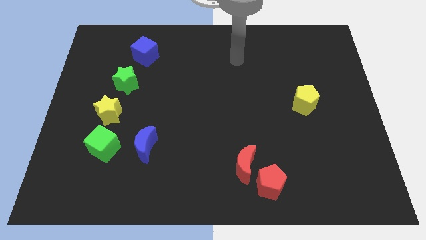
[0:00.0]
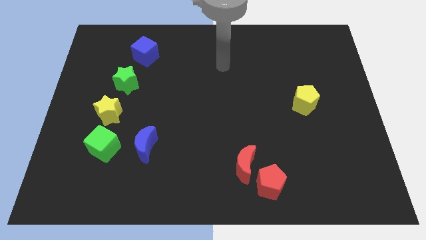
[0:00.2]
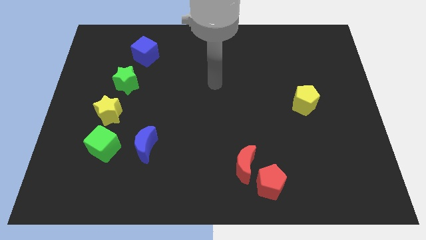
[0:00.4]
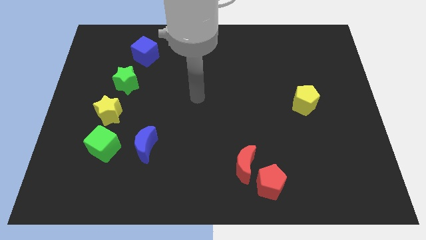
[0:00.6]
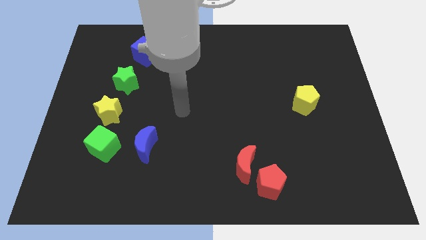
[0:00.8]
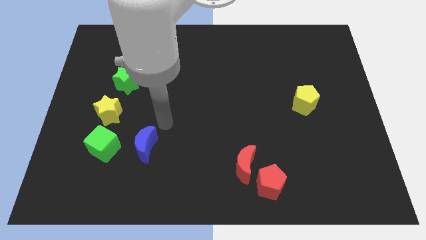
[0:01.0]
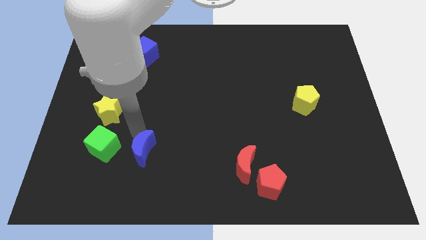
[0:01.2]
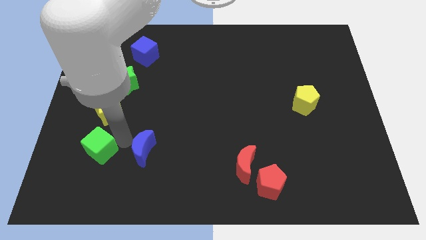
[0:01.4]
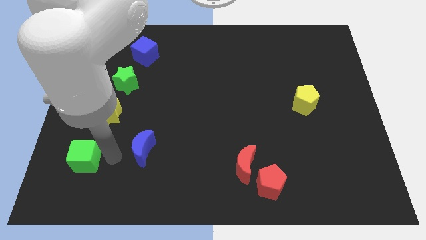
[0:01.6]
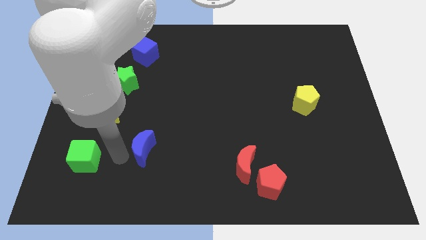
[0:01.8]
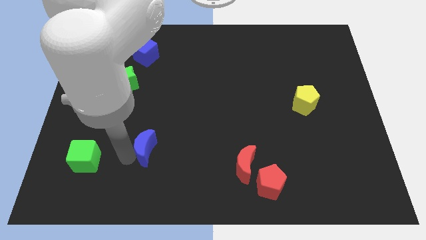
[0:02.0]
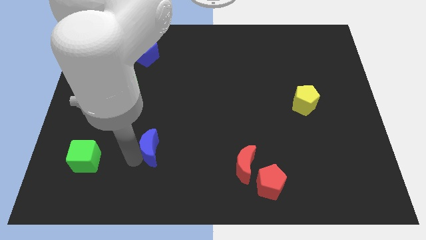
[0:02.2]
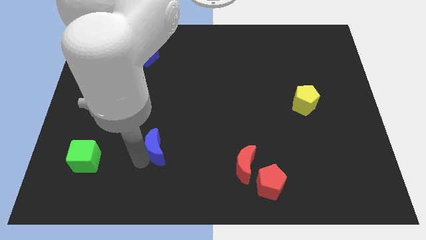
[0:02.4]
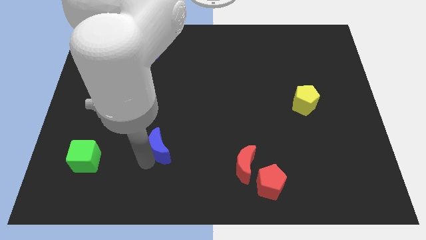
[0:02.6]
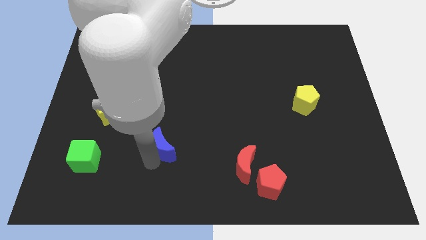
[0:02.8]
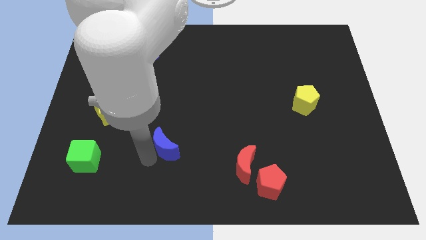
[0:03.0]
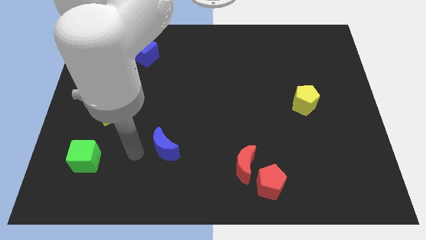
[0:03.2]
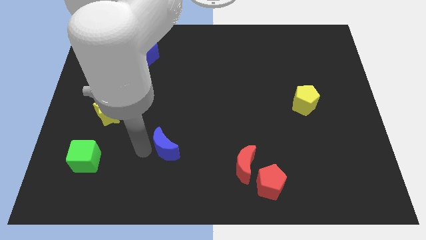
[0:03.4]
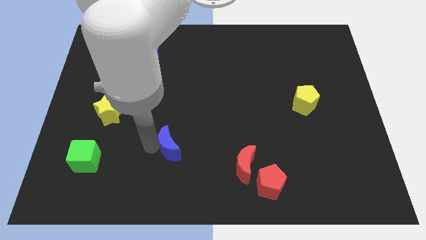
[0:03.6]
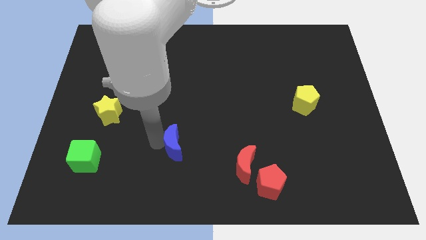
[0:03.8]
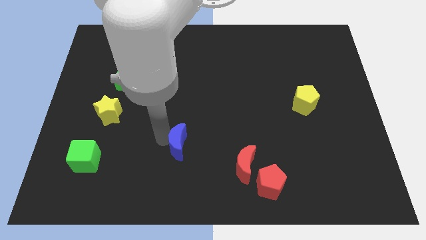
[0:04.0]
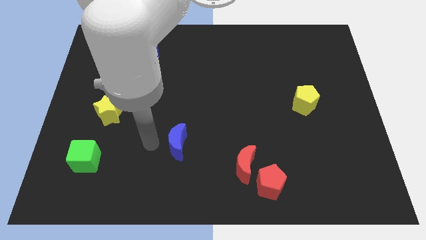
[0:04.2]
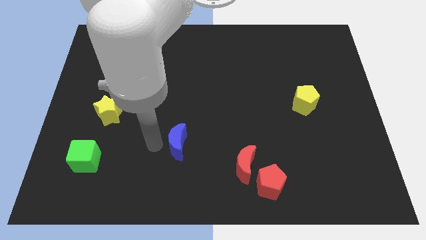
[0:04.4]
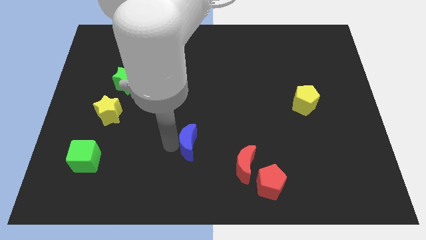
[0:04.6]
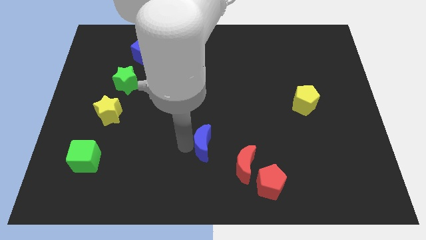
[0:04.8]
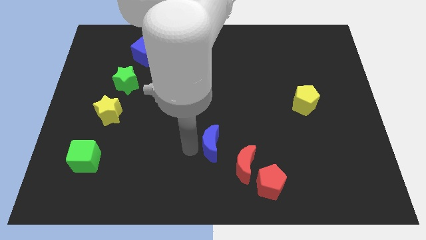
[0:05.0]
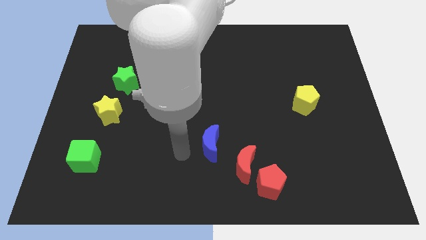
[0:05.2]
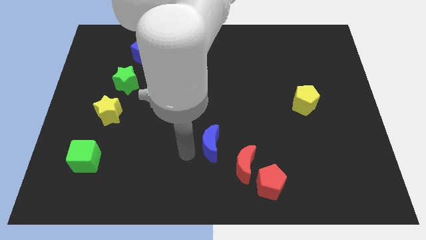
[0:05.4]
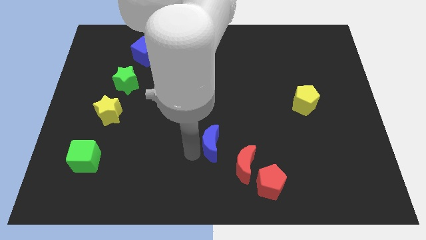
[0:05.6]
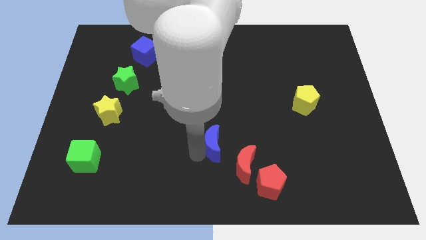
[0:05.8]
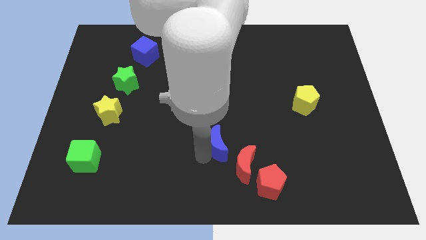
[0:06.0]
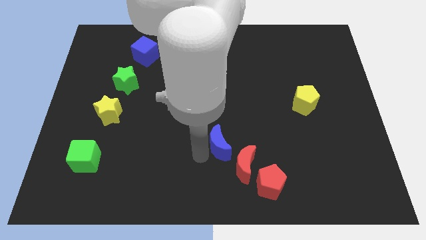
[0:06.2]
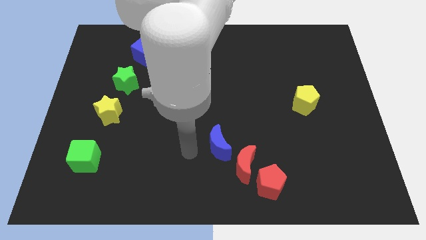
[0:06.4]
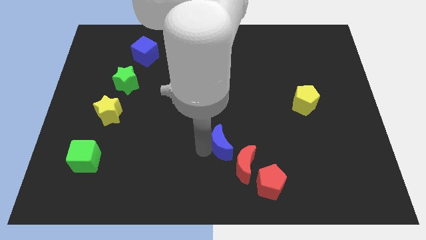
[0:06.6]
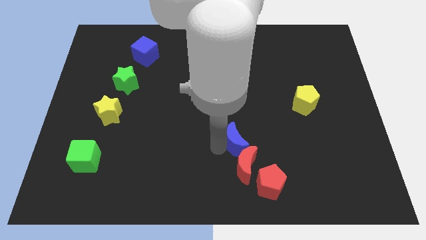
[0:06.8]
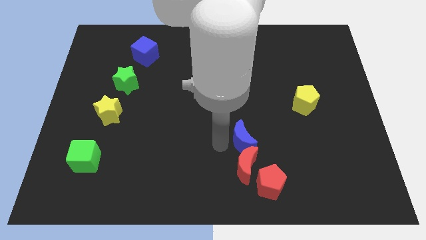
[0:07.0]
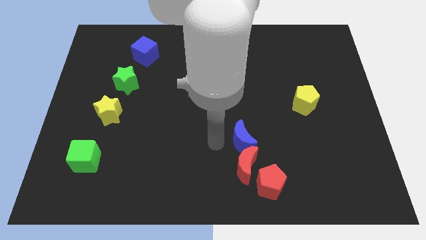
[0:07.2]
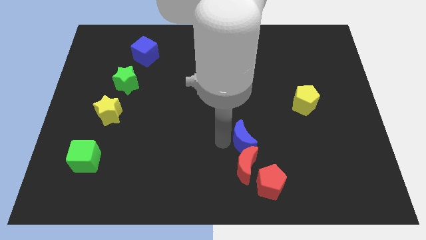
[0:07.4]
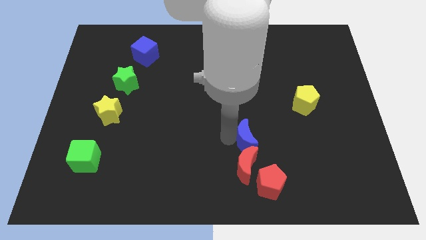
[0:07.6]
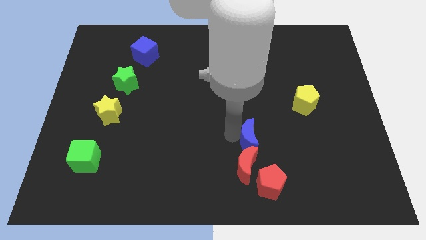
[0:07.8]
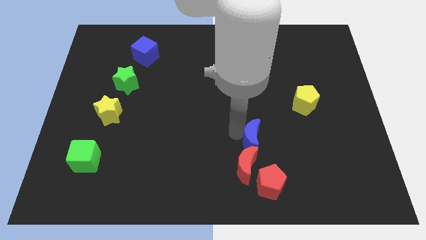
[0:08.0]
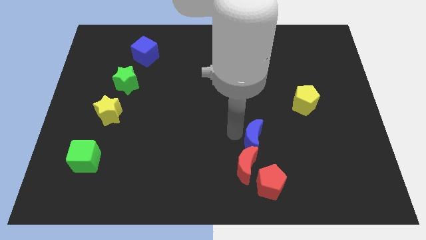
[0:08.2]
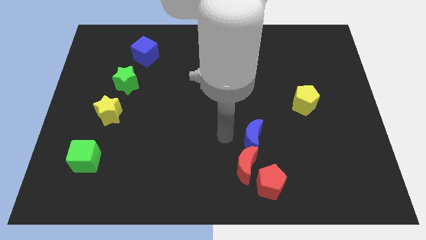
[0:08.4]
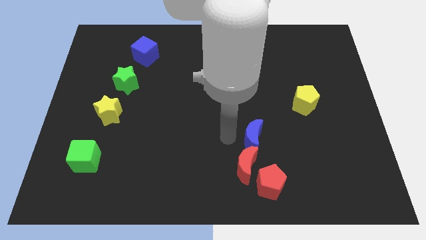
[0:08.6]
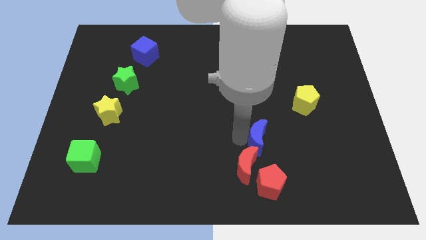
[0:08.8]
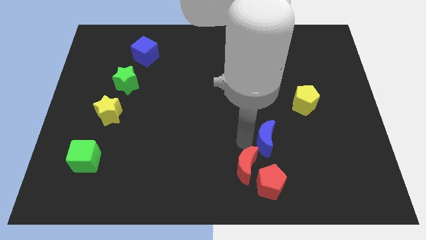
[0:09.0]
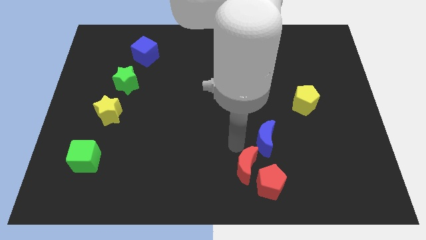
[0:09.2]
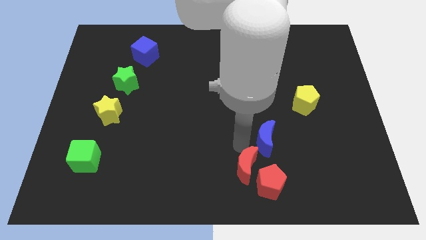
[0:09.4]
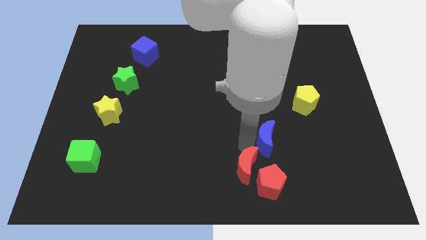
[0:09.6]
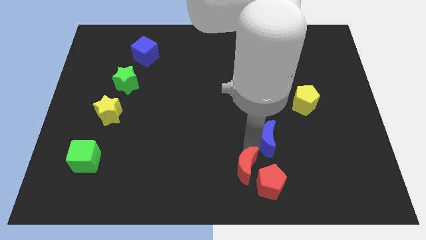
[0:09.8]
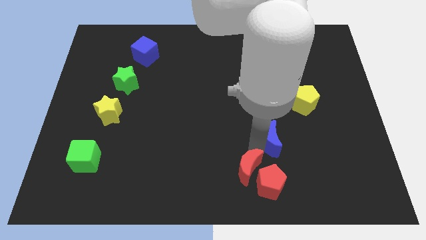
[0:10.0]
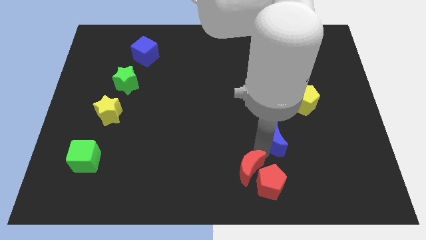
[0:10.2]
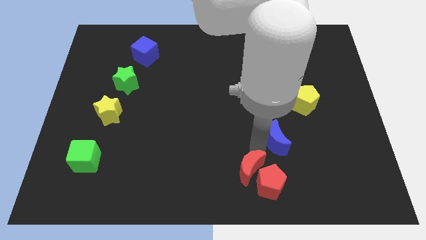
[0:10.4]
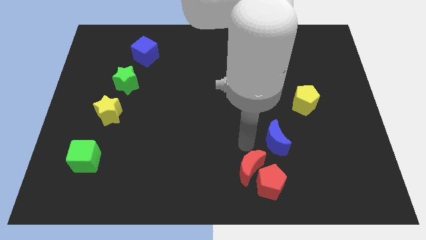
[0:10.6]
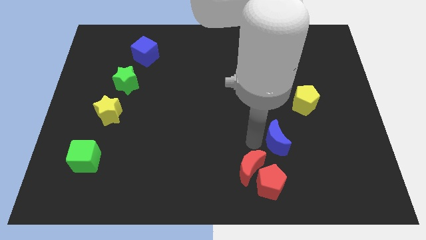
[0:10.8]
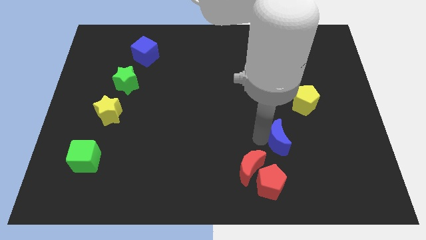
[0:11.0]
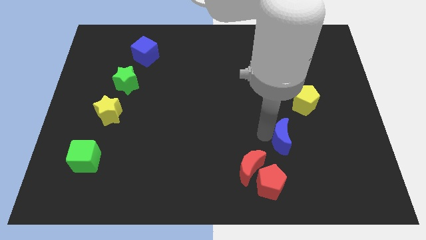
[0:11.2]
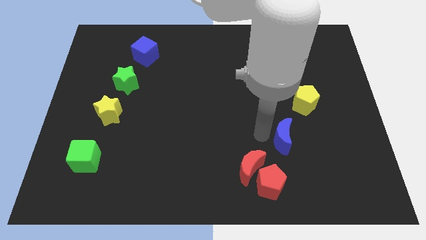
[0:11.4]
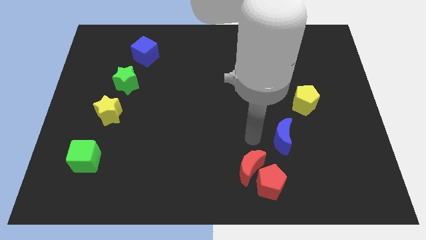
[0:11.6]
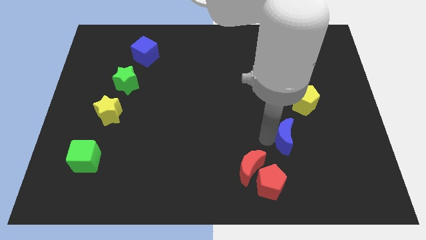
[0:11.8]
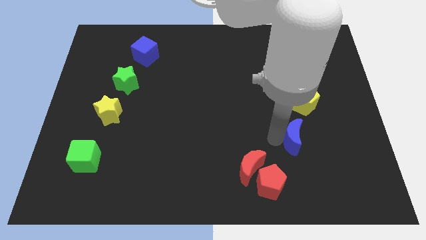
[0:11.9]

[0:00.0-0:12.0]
push the blue moon below the yellow pentagon

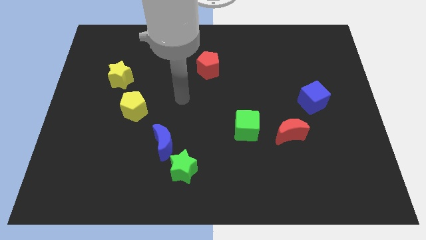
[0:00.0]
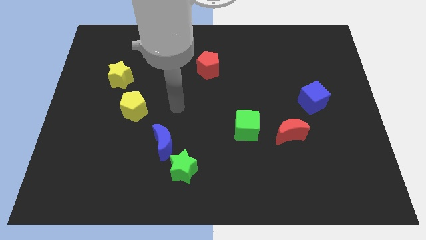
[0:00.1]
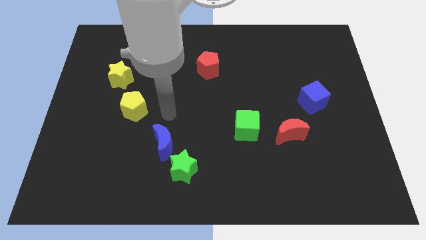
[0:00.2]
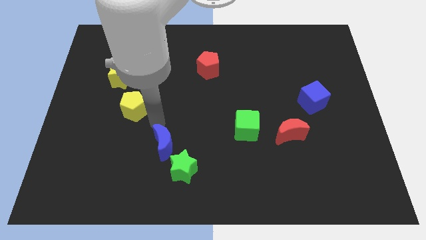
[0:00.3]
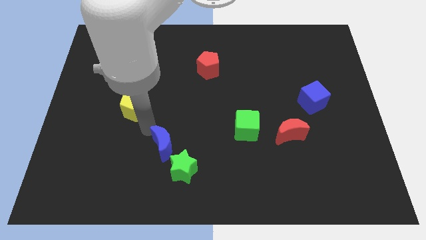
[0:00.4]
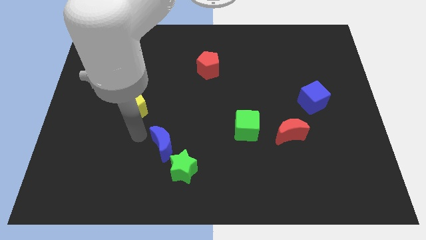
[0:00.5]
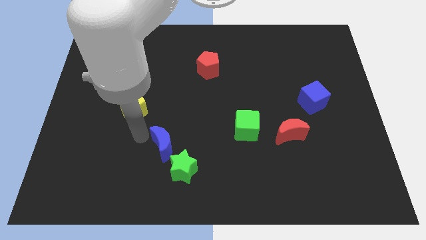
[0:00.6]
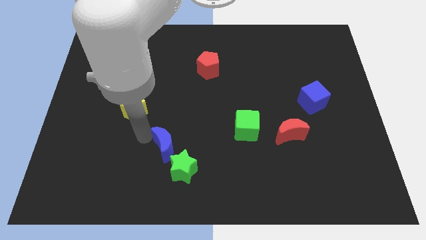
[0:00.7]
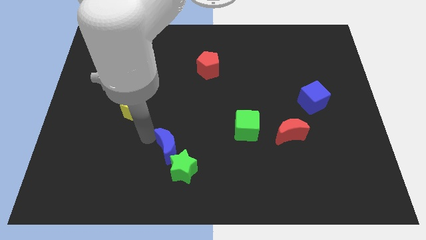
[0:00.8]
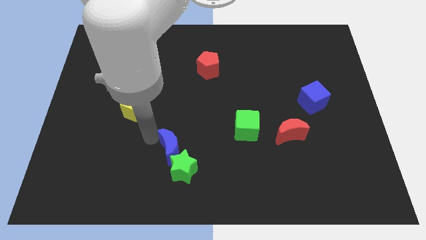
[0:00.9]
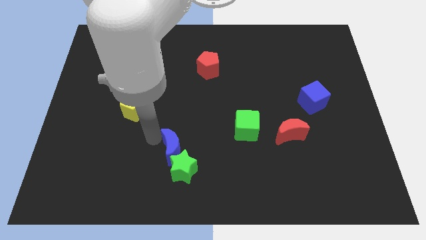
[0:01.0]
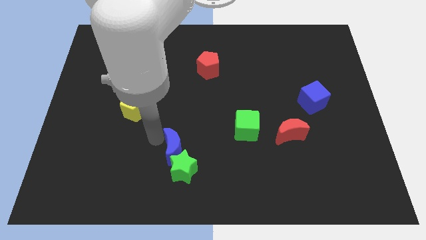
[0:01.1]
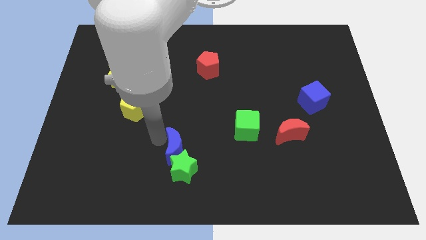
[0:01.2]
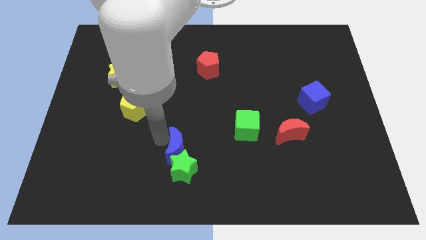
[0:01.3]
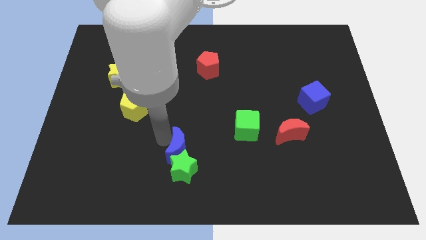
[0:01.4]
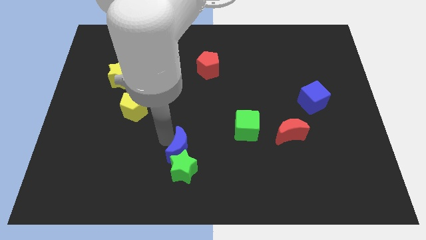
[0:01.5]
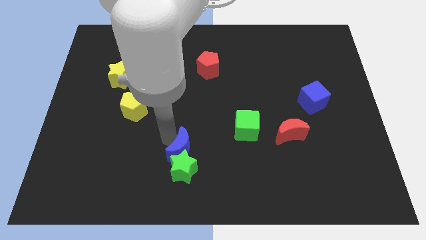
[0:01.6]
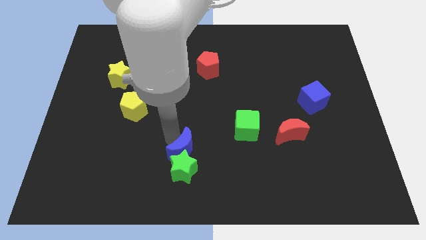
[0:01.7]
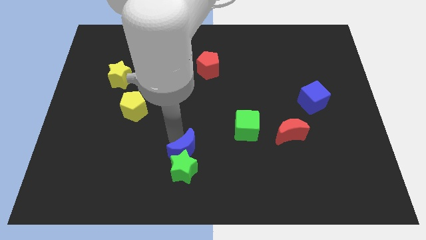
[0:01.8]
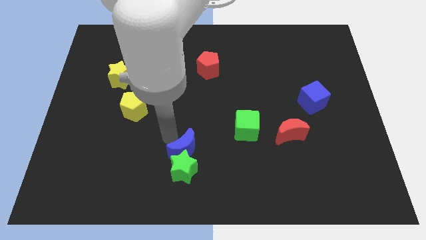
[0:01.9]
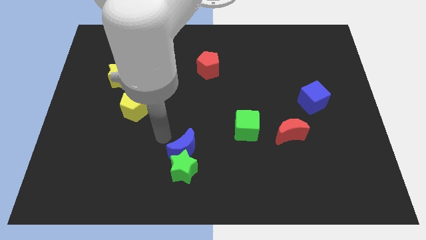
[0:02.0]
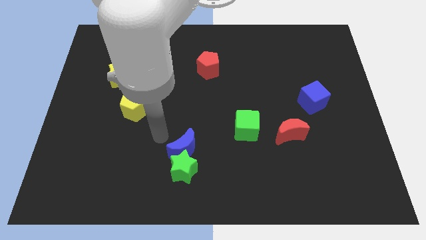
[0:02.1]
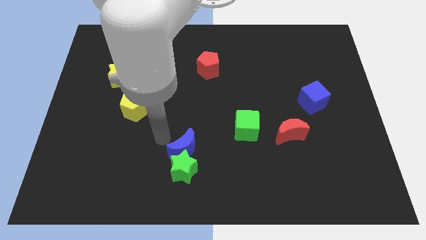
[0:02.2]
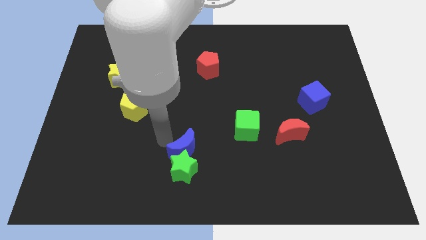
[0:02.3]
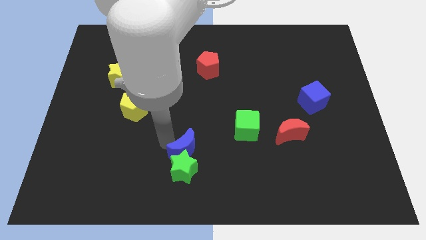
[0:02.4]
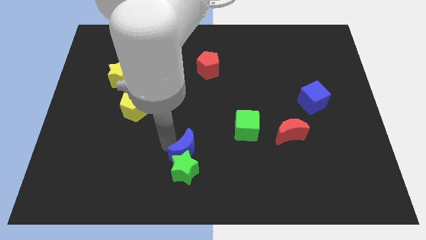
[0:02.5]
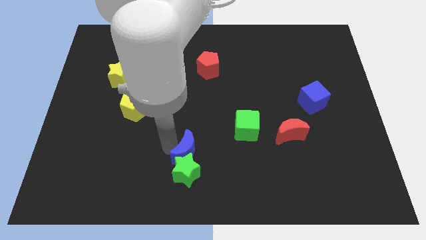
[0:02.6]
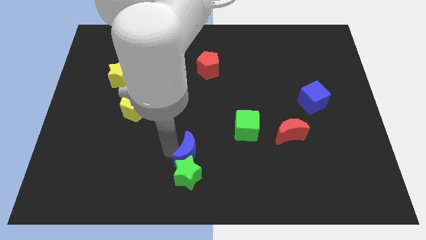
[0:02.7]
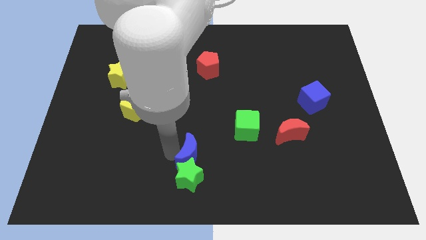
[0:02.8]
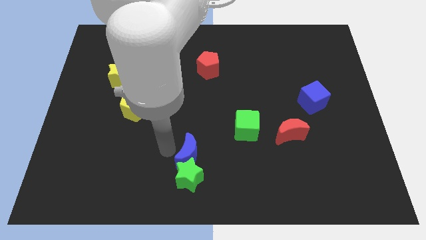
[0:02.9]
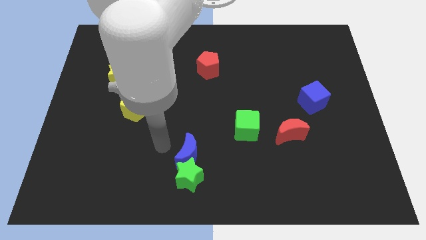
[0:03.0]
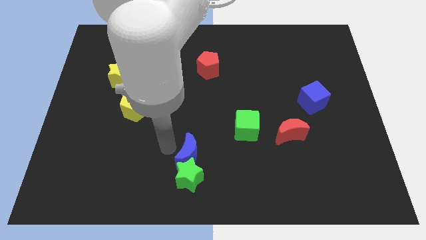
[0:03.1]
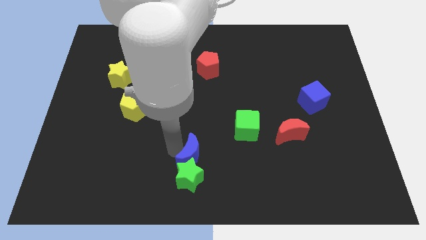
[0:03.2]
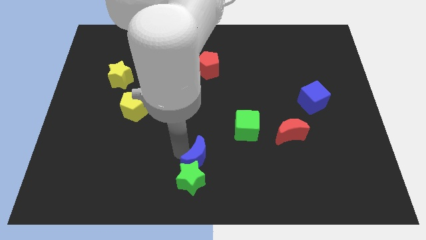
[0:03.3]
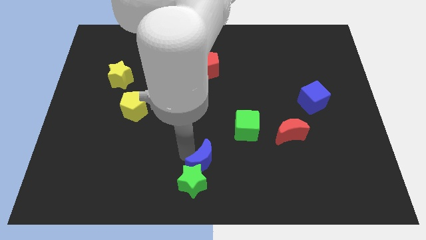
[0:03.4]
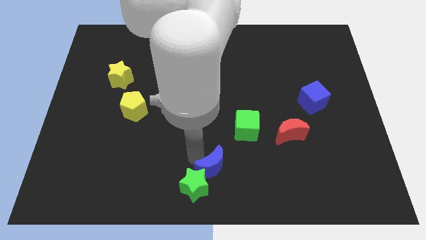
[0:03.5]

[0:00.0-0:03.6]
slide the blue moon right of the green star
